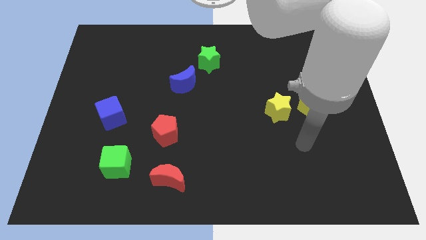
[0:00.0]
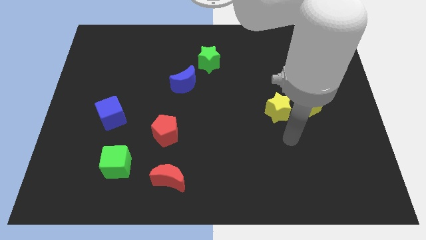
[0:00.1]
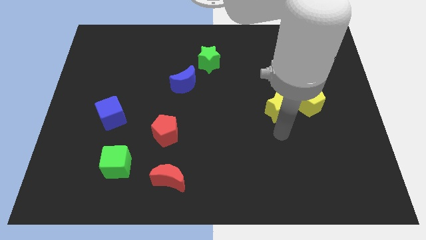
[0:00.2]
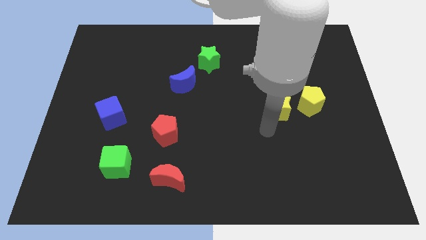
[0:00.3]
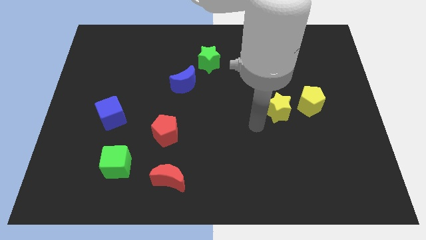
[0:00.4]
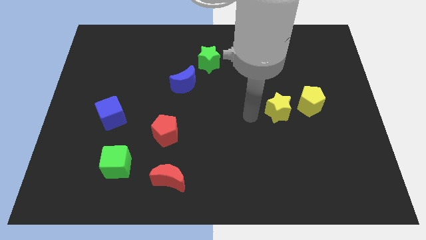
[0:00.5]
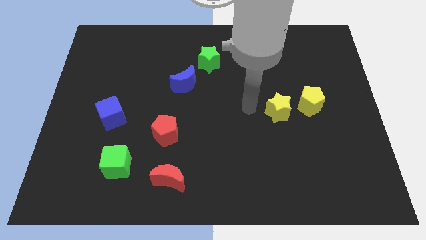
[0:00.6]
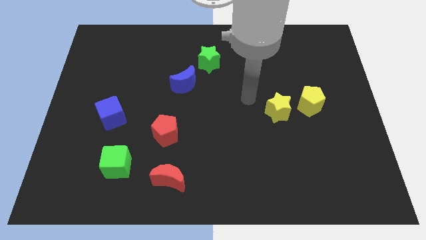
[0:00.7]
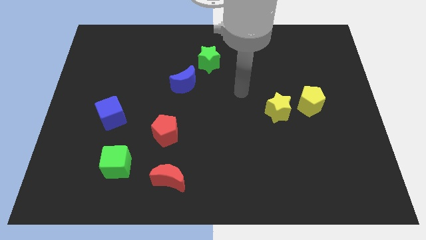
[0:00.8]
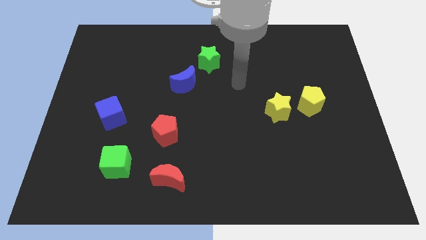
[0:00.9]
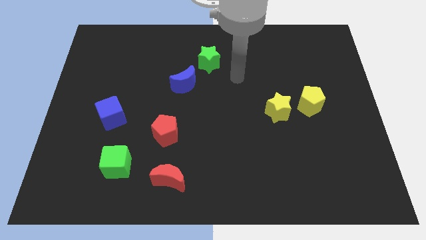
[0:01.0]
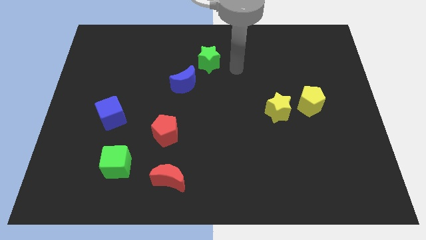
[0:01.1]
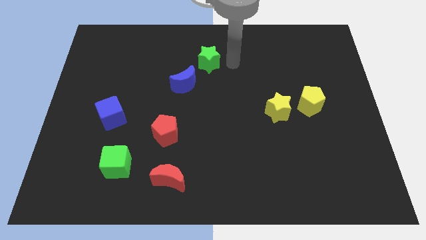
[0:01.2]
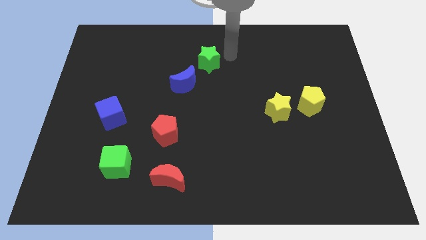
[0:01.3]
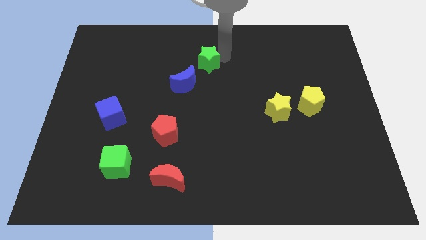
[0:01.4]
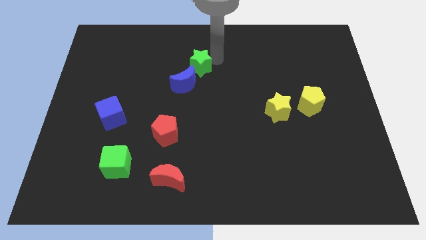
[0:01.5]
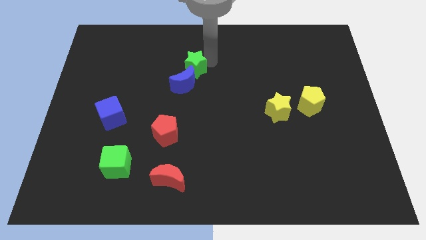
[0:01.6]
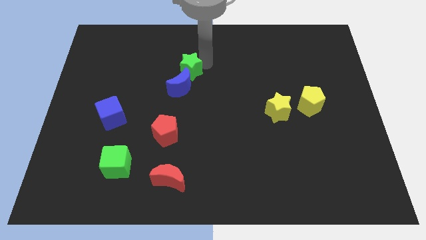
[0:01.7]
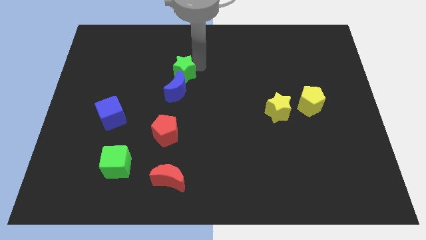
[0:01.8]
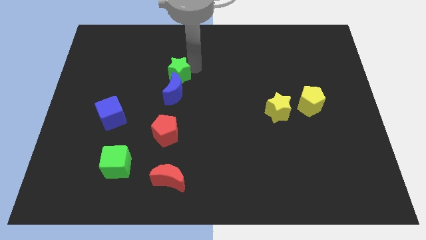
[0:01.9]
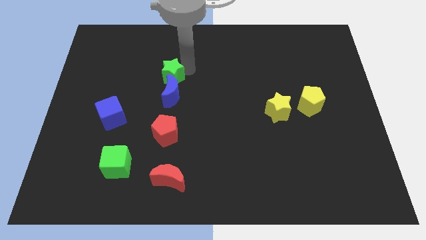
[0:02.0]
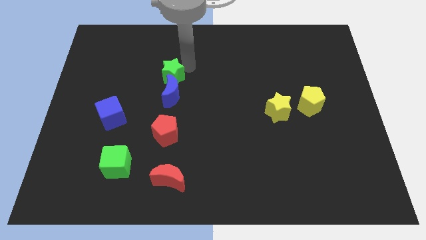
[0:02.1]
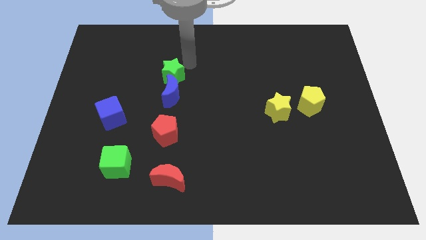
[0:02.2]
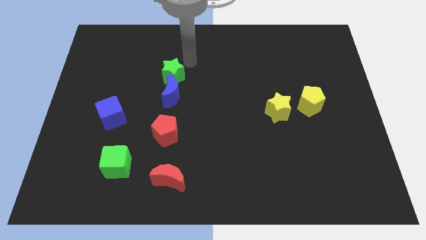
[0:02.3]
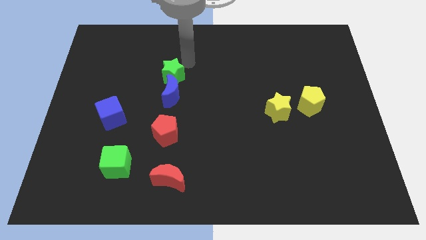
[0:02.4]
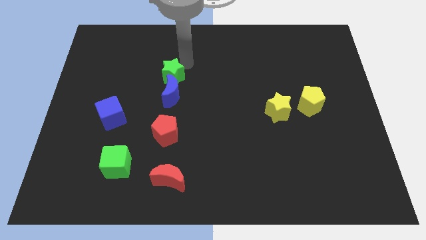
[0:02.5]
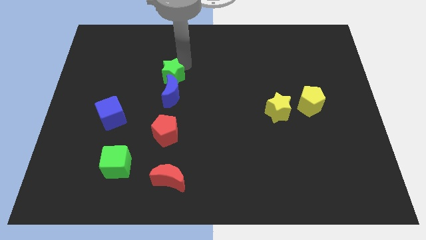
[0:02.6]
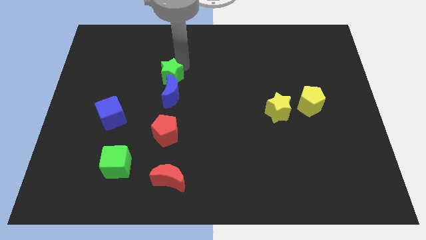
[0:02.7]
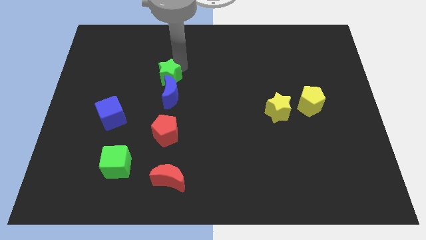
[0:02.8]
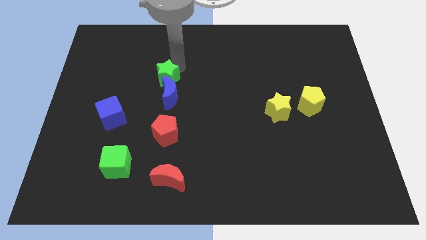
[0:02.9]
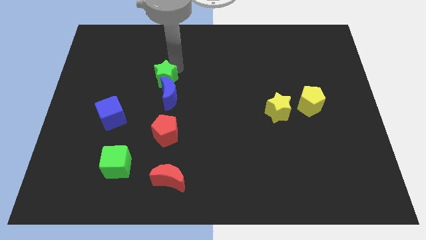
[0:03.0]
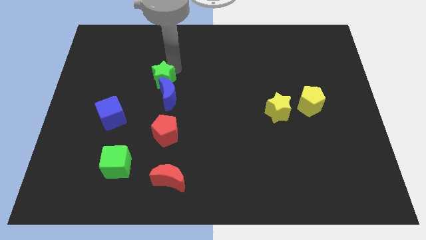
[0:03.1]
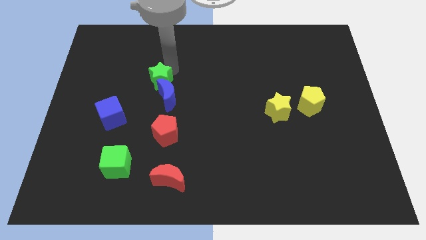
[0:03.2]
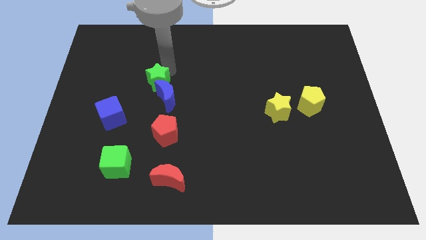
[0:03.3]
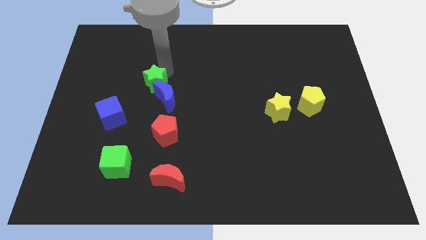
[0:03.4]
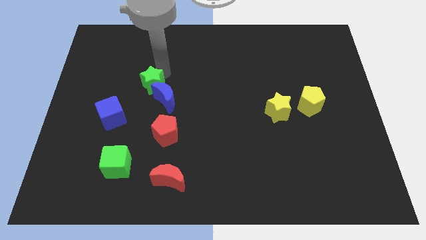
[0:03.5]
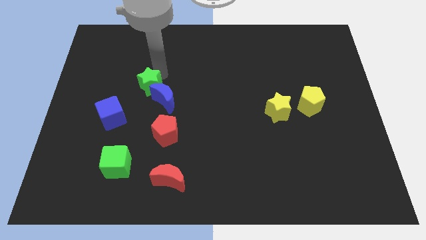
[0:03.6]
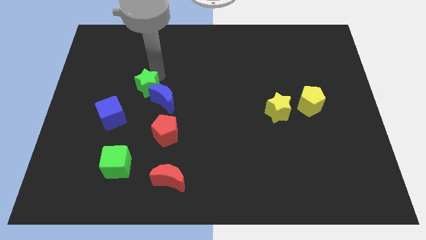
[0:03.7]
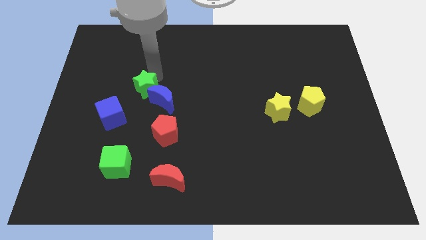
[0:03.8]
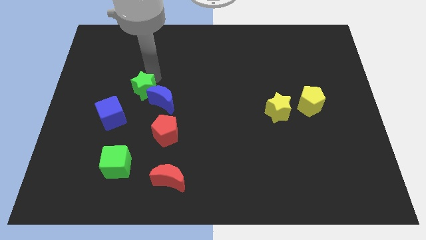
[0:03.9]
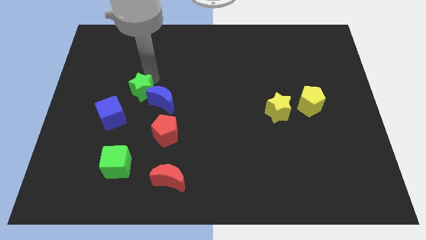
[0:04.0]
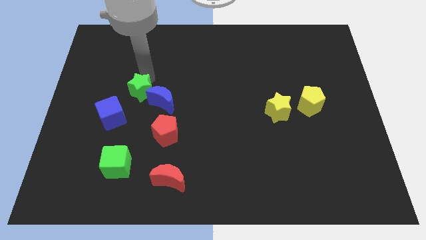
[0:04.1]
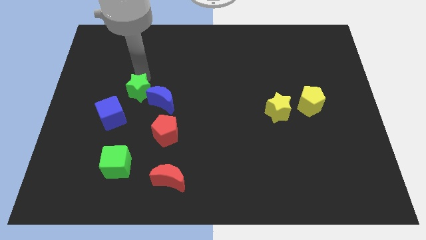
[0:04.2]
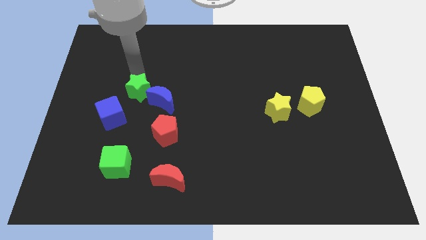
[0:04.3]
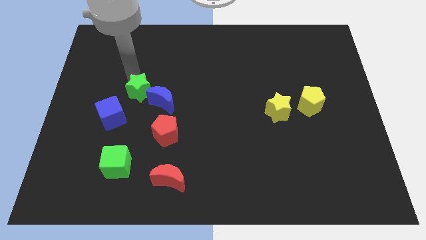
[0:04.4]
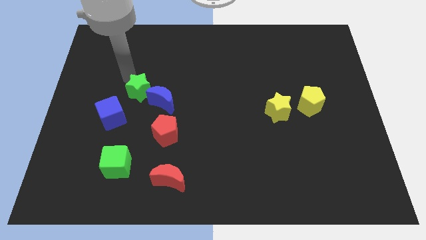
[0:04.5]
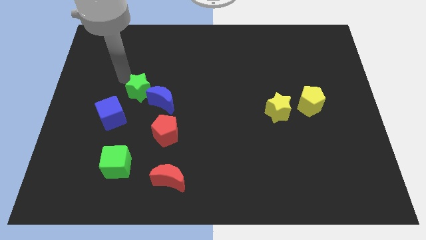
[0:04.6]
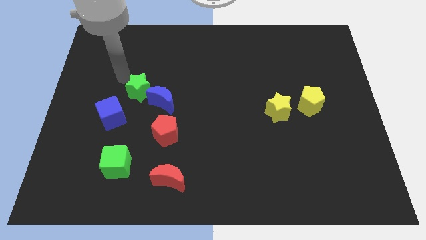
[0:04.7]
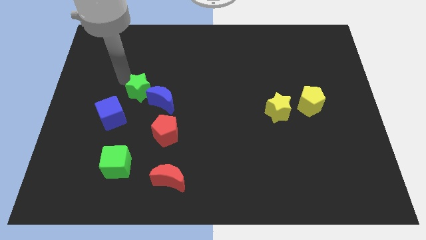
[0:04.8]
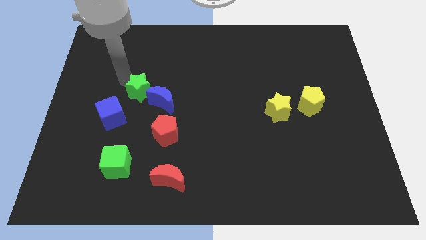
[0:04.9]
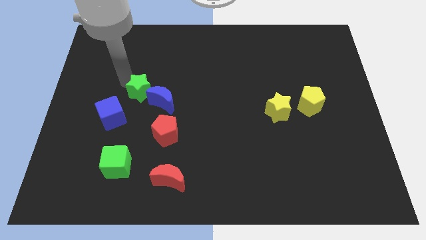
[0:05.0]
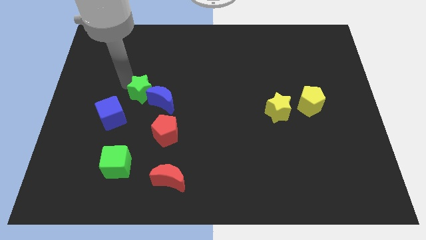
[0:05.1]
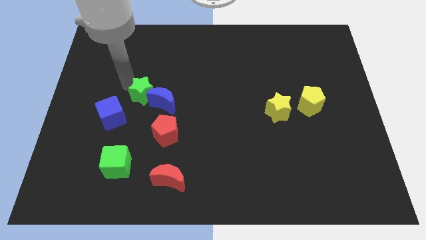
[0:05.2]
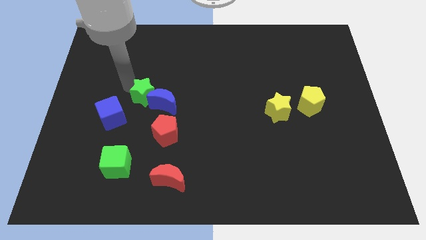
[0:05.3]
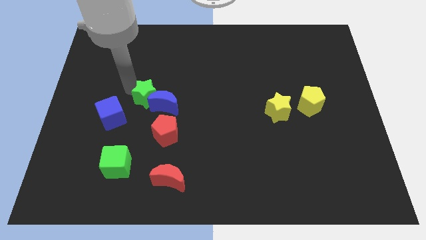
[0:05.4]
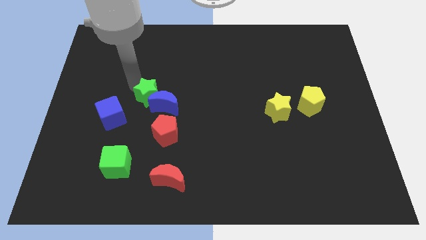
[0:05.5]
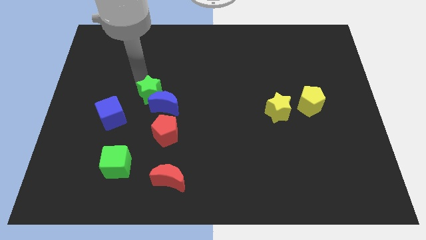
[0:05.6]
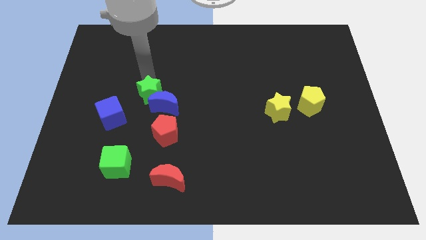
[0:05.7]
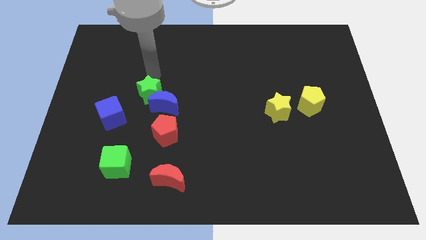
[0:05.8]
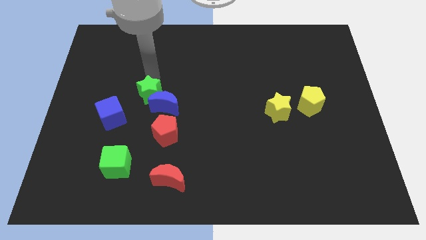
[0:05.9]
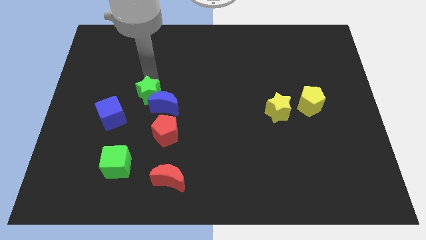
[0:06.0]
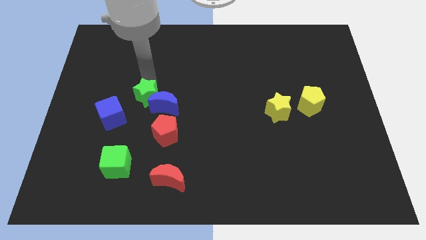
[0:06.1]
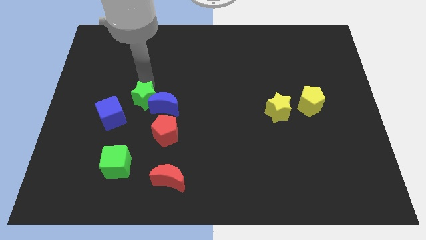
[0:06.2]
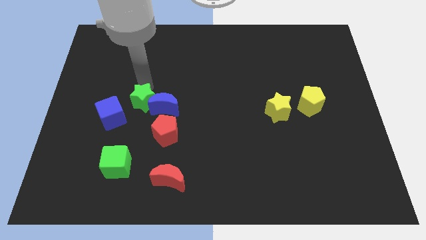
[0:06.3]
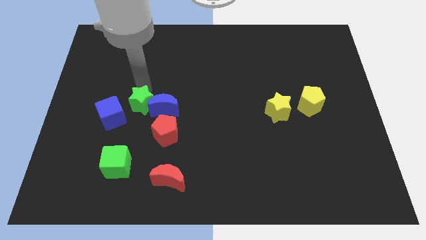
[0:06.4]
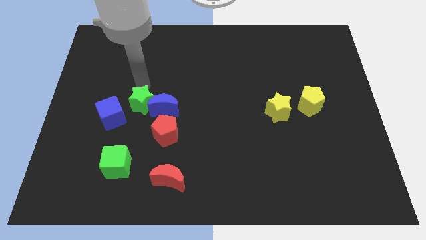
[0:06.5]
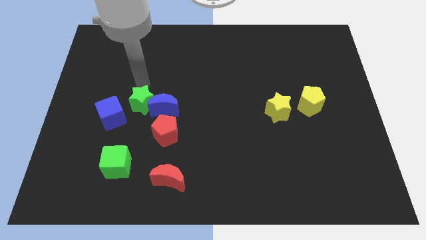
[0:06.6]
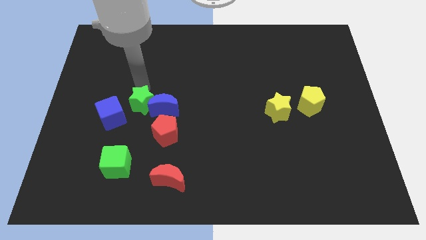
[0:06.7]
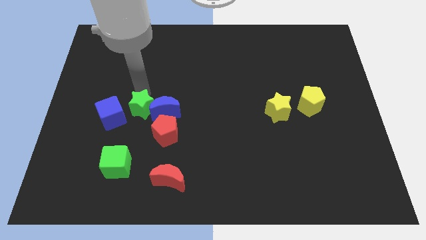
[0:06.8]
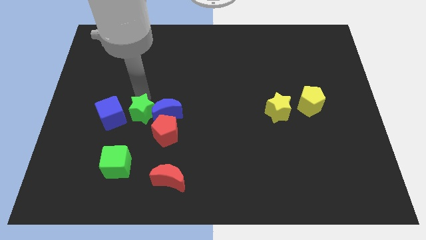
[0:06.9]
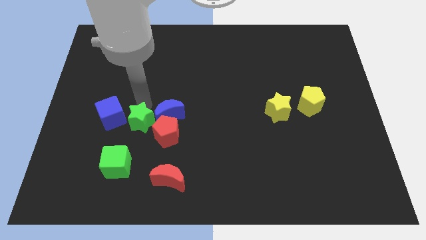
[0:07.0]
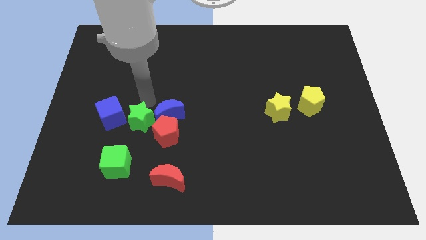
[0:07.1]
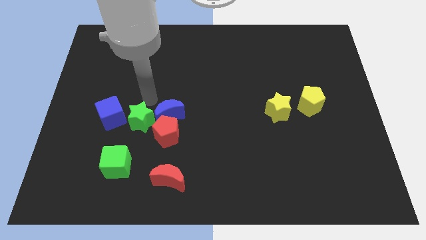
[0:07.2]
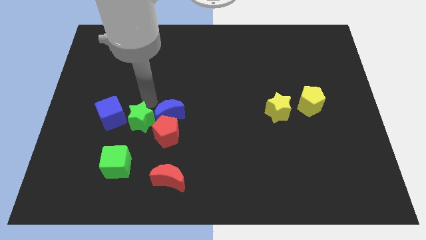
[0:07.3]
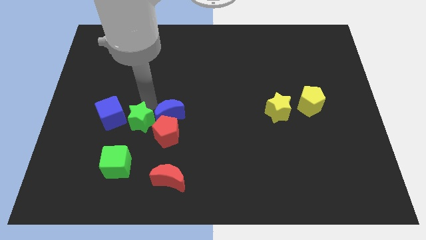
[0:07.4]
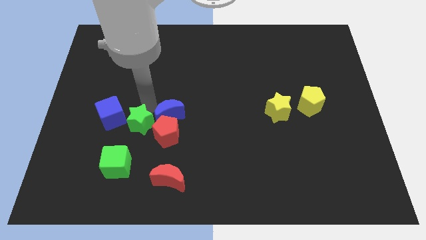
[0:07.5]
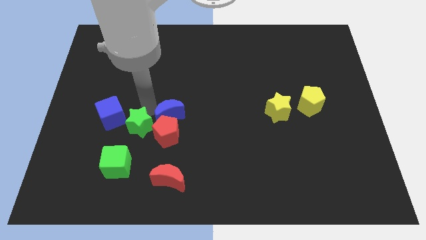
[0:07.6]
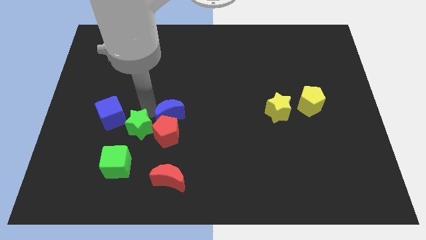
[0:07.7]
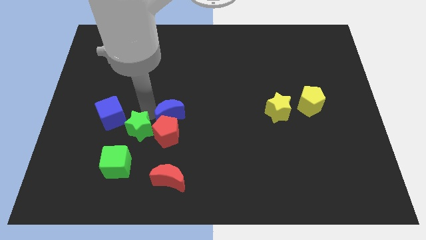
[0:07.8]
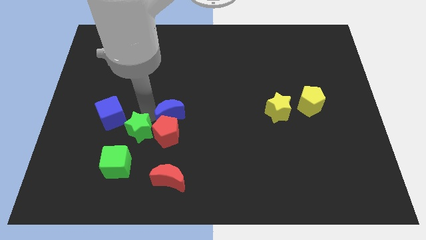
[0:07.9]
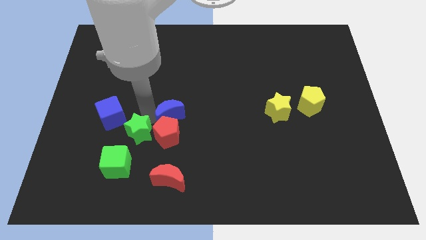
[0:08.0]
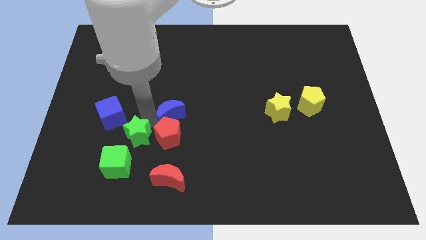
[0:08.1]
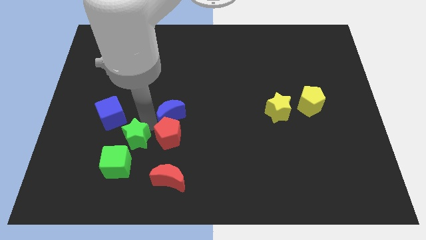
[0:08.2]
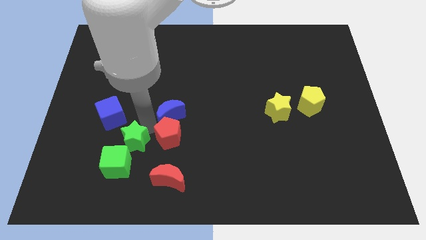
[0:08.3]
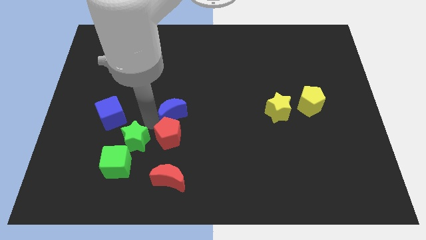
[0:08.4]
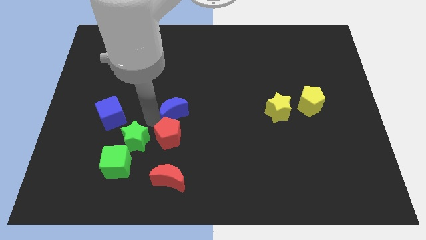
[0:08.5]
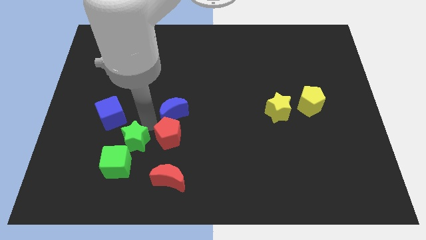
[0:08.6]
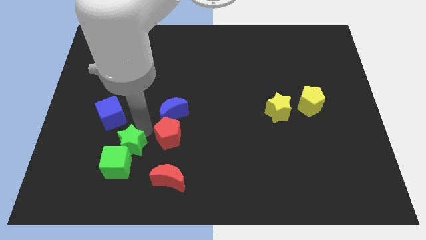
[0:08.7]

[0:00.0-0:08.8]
push the green star close to the green cube
